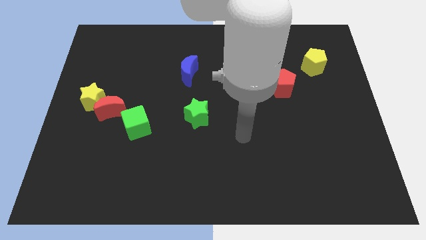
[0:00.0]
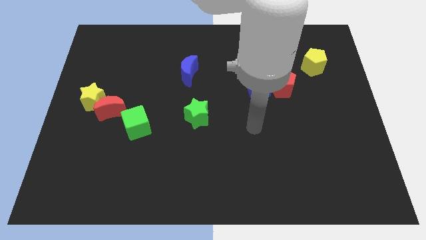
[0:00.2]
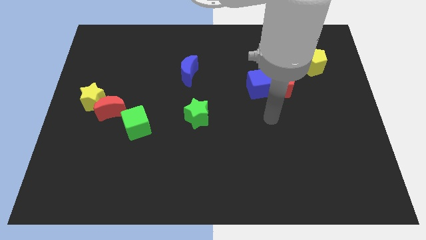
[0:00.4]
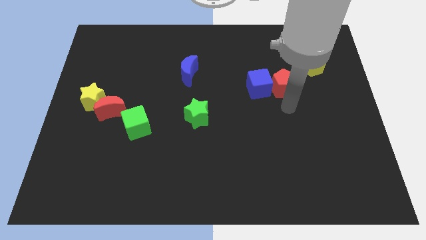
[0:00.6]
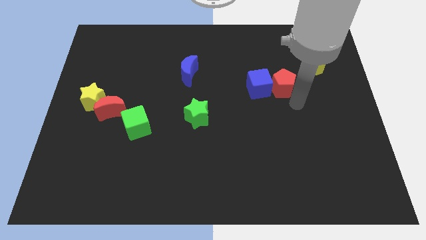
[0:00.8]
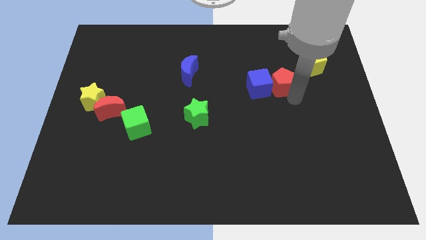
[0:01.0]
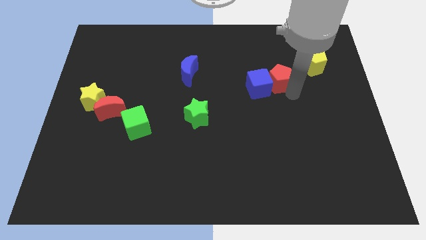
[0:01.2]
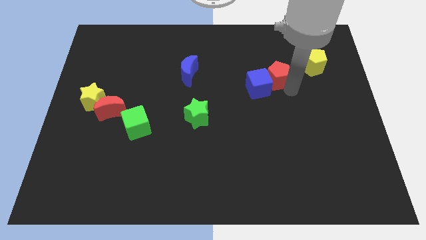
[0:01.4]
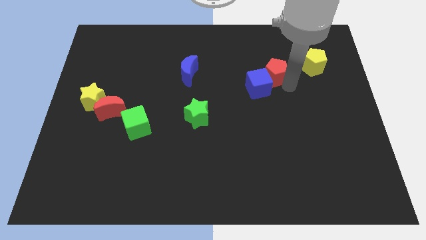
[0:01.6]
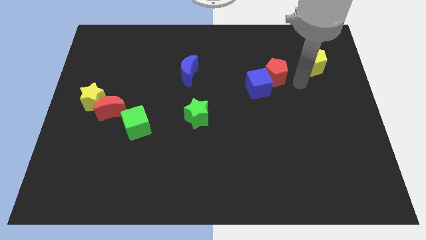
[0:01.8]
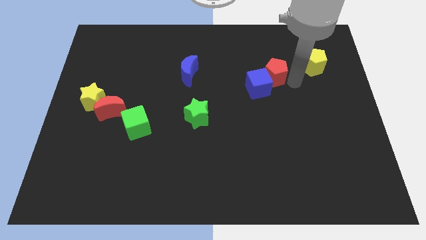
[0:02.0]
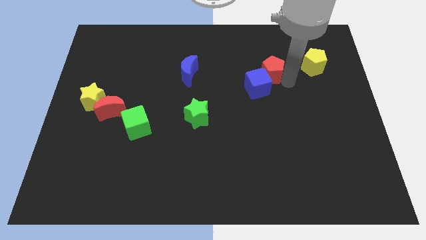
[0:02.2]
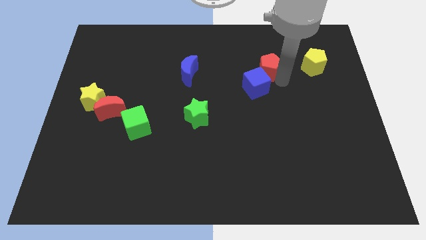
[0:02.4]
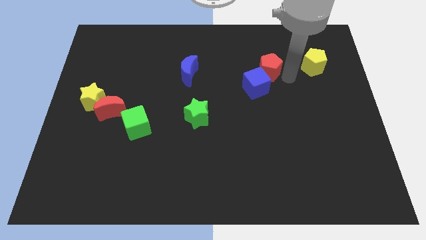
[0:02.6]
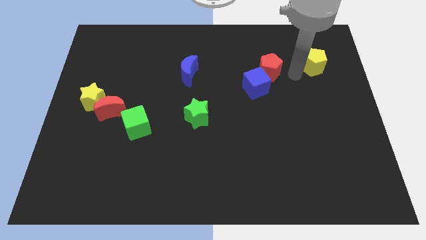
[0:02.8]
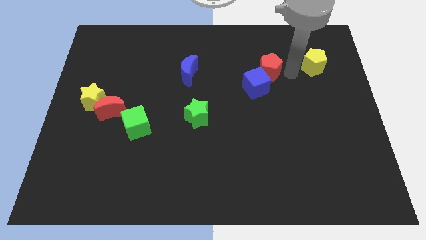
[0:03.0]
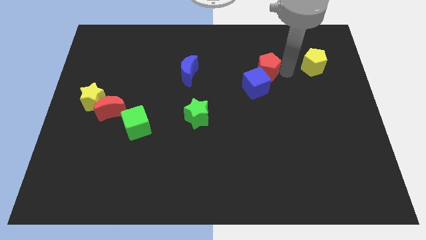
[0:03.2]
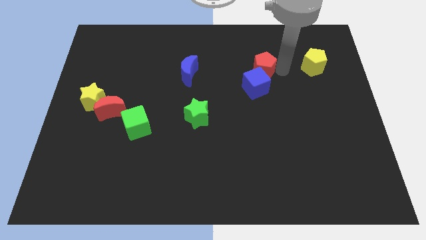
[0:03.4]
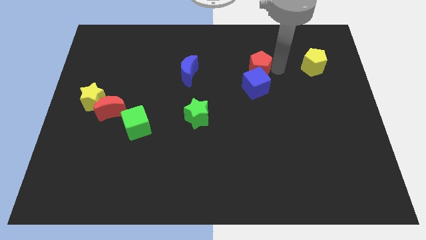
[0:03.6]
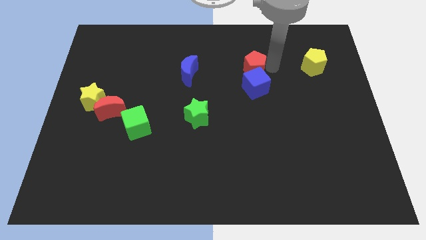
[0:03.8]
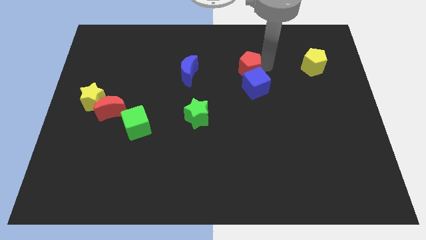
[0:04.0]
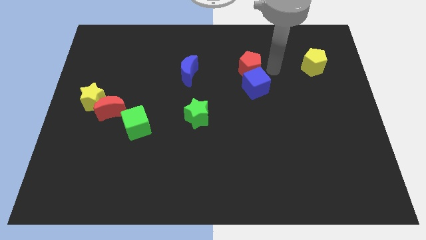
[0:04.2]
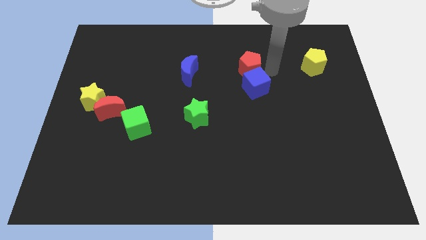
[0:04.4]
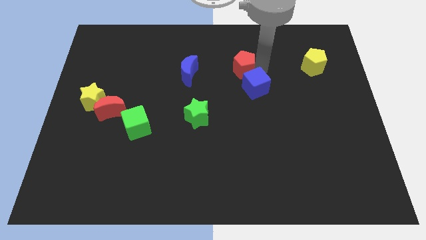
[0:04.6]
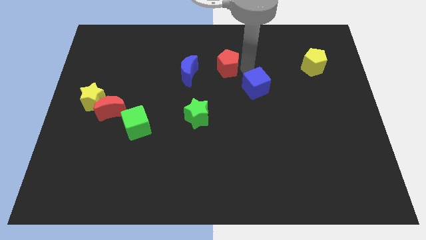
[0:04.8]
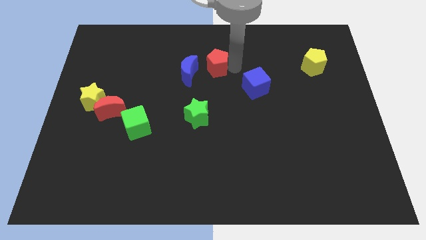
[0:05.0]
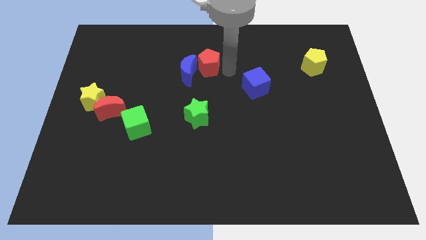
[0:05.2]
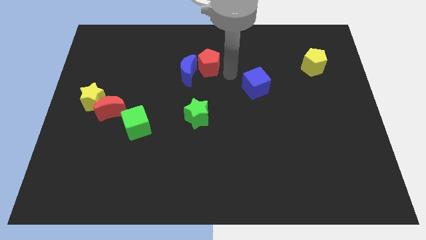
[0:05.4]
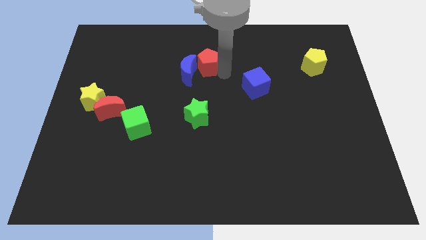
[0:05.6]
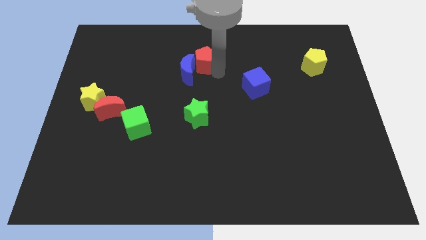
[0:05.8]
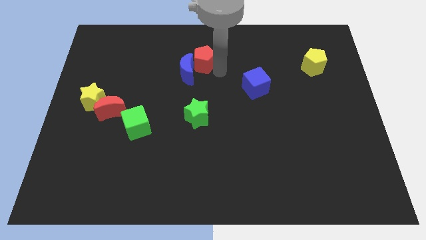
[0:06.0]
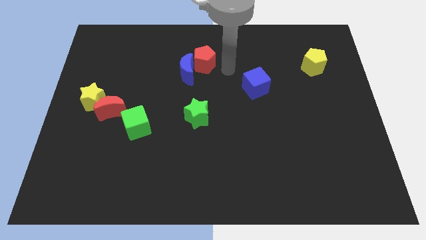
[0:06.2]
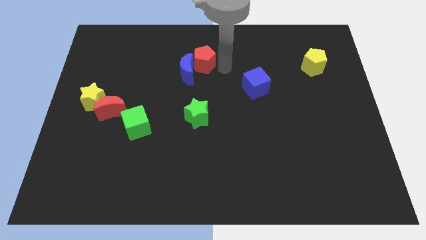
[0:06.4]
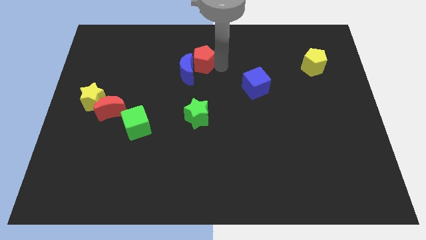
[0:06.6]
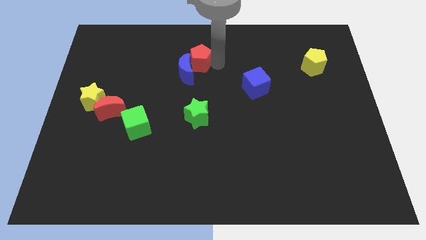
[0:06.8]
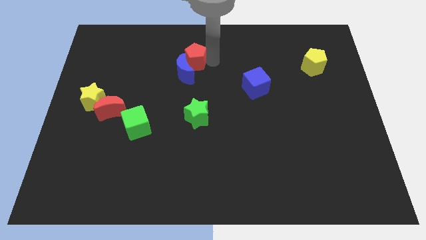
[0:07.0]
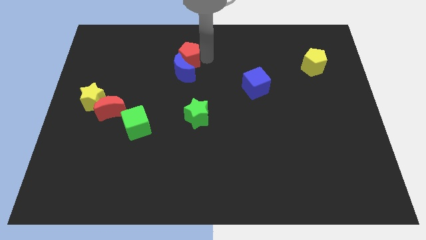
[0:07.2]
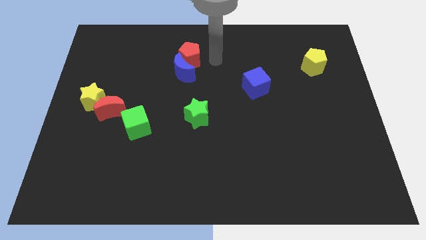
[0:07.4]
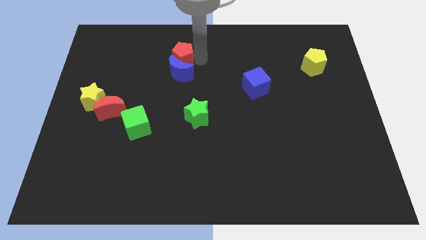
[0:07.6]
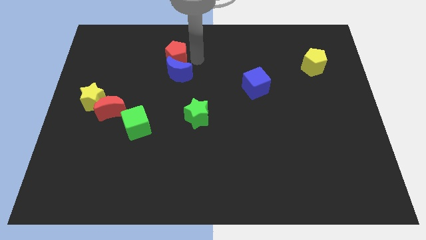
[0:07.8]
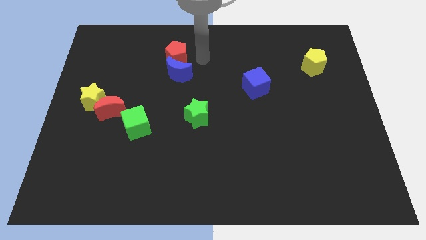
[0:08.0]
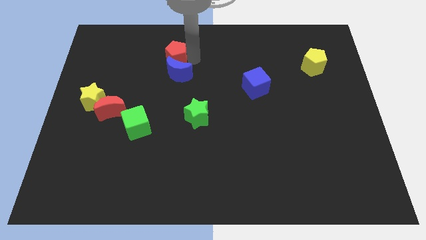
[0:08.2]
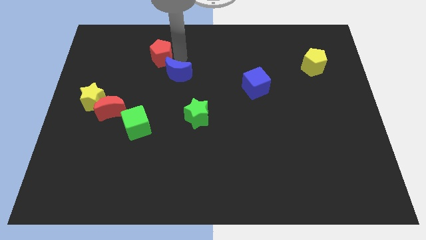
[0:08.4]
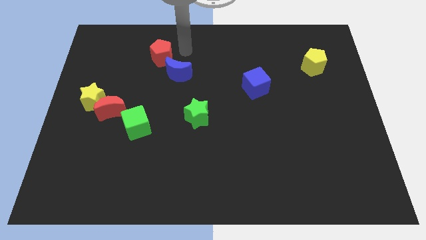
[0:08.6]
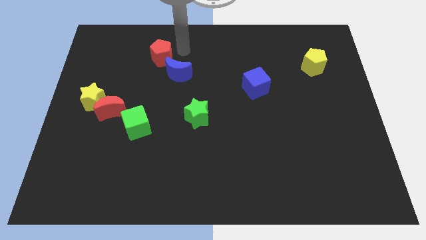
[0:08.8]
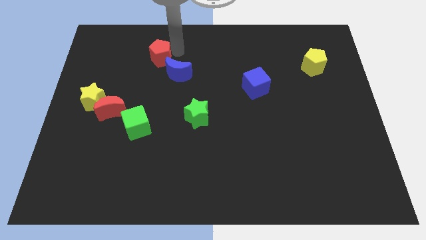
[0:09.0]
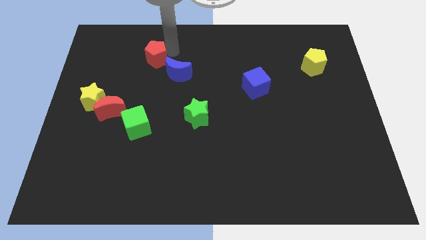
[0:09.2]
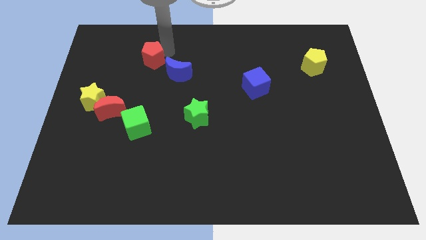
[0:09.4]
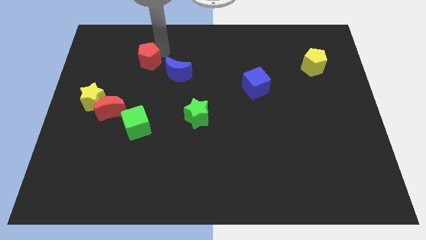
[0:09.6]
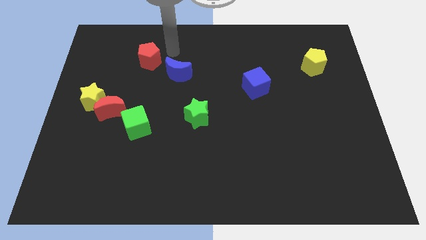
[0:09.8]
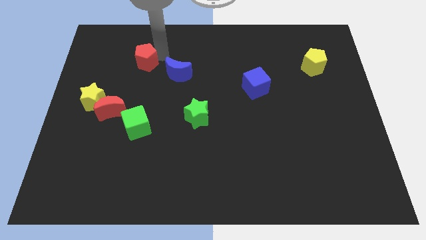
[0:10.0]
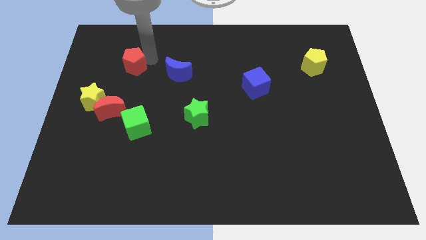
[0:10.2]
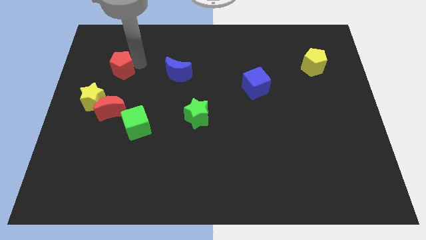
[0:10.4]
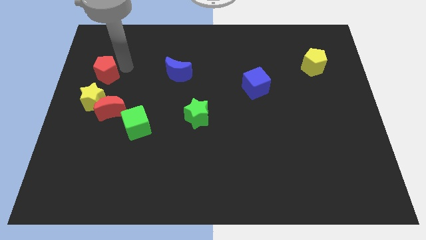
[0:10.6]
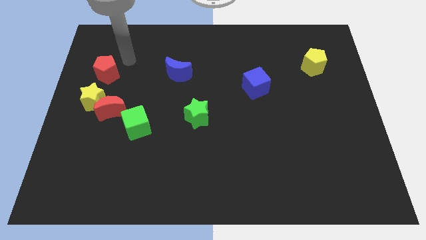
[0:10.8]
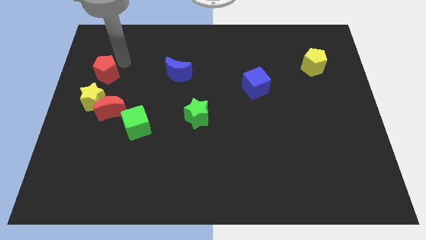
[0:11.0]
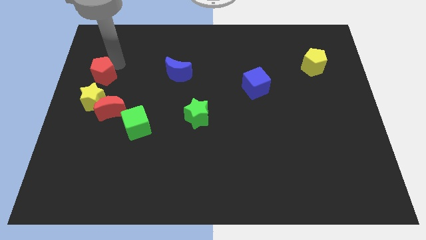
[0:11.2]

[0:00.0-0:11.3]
push the red pentagon to the left side of the board

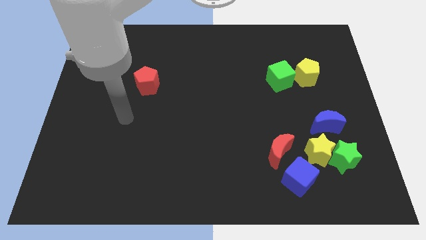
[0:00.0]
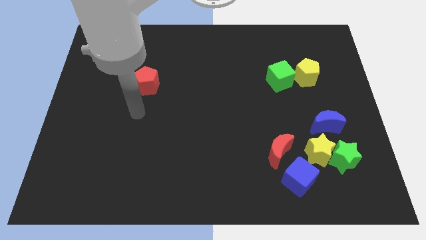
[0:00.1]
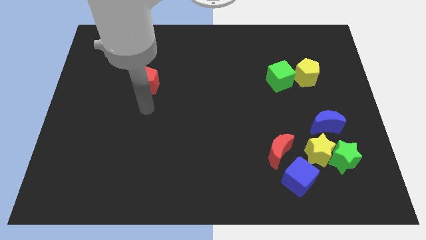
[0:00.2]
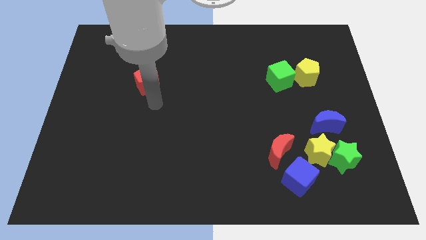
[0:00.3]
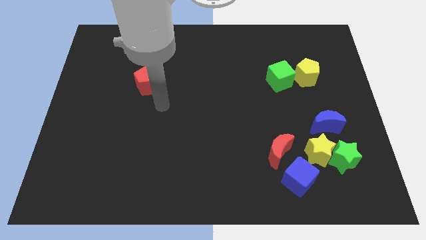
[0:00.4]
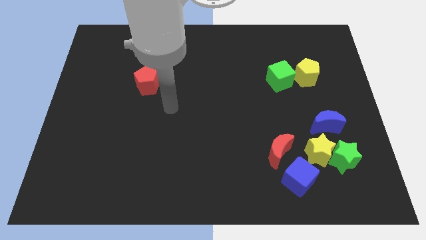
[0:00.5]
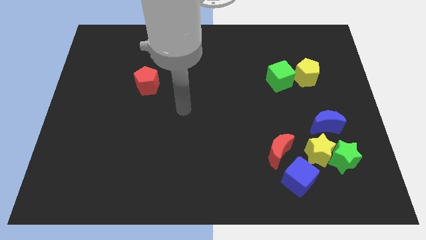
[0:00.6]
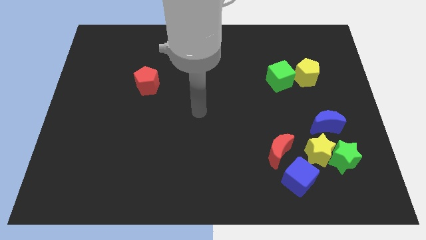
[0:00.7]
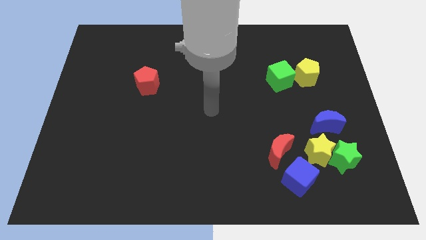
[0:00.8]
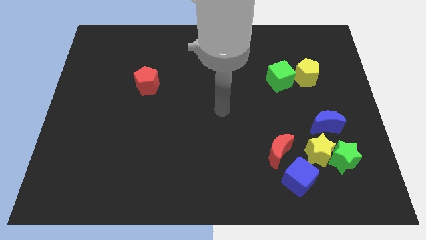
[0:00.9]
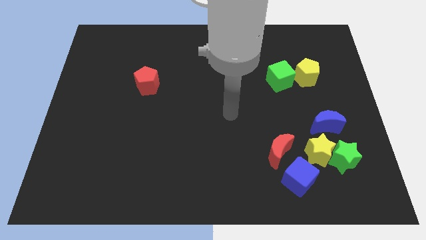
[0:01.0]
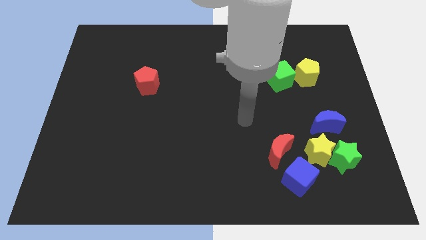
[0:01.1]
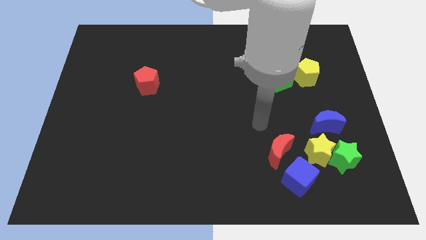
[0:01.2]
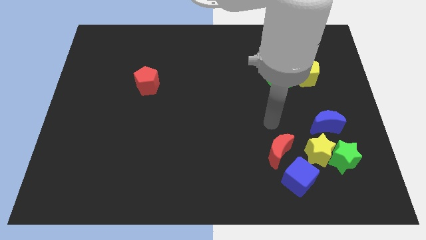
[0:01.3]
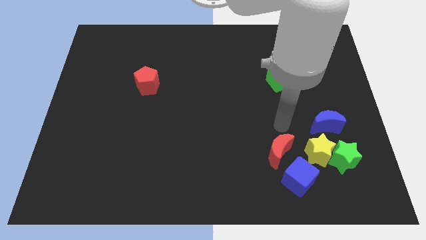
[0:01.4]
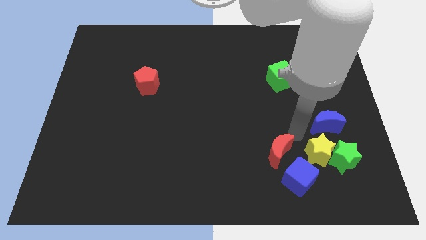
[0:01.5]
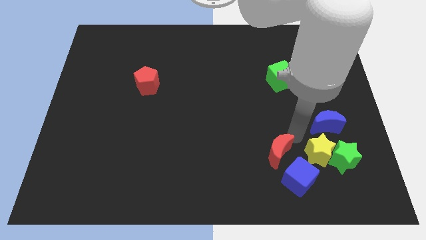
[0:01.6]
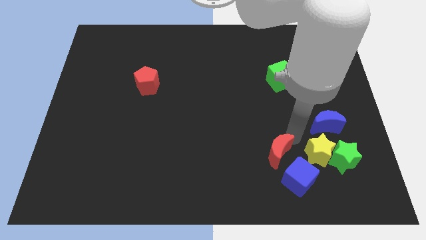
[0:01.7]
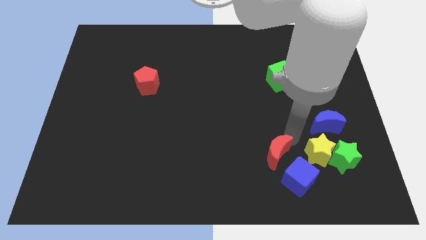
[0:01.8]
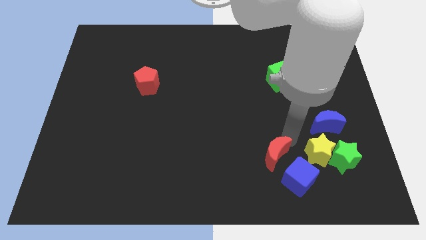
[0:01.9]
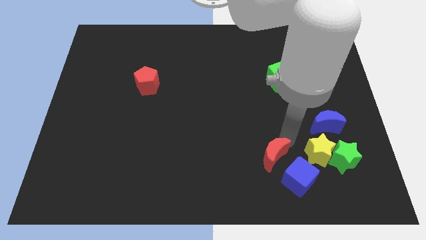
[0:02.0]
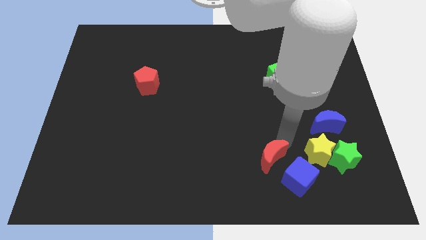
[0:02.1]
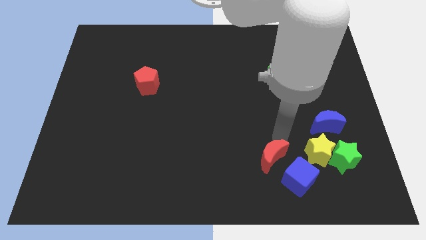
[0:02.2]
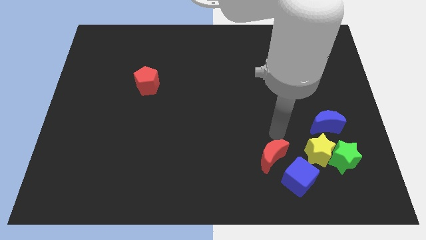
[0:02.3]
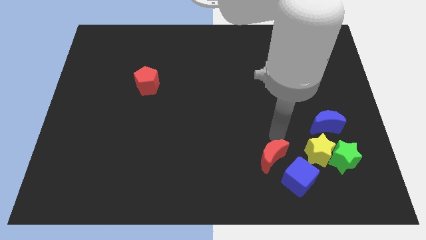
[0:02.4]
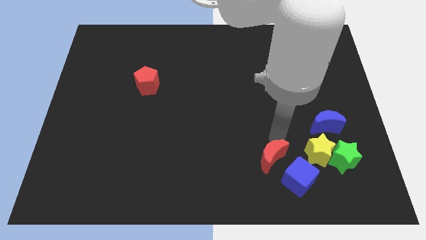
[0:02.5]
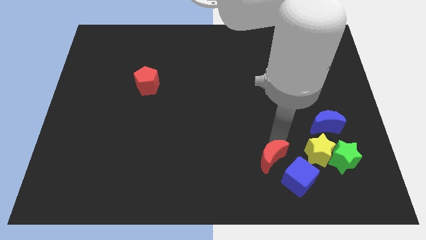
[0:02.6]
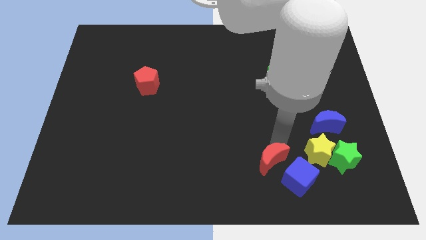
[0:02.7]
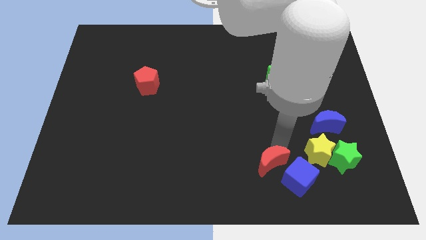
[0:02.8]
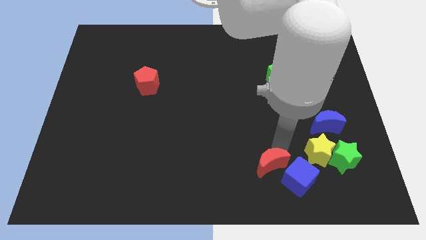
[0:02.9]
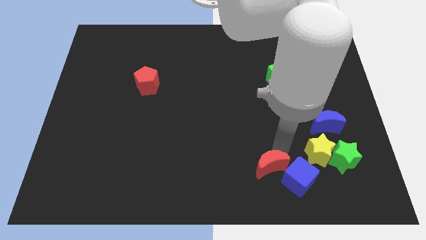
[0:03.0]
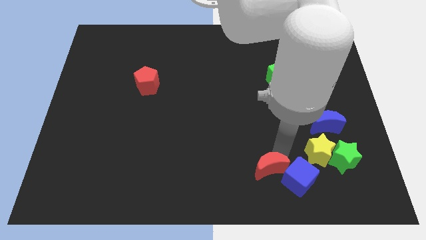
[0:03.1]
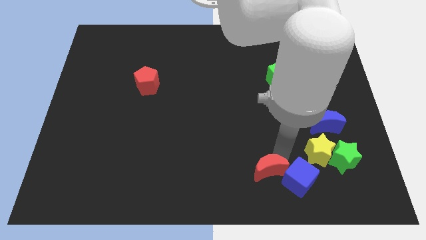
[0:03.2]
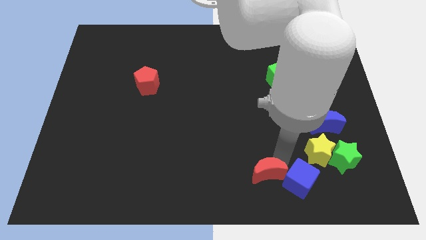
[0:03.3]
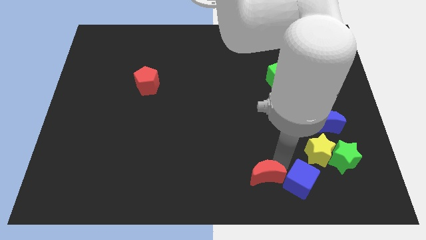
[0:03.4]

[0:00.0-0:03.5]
push the red moon to the bottom
